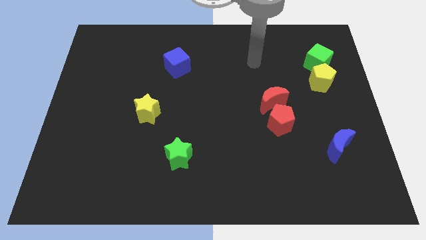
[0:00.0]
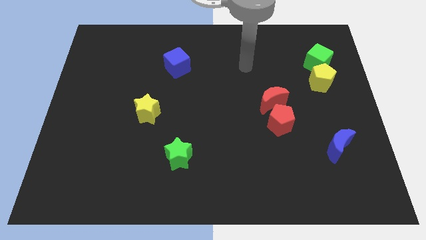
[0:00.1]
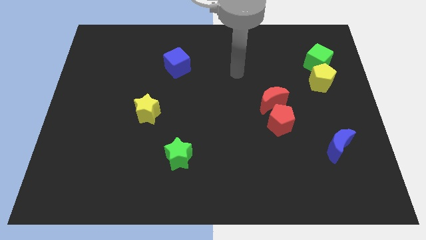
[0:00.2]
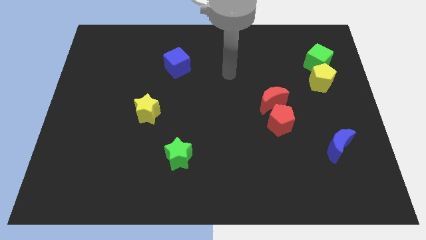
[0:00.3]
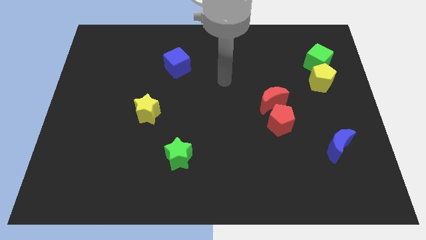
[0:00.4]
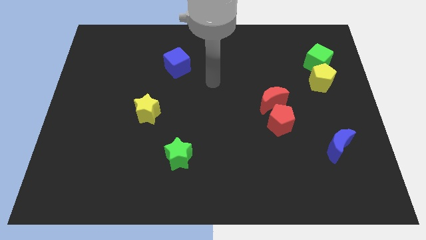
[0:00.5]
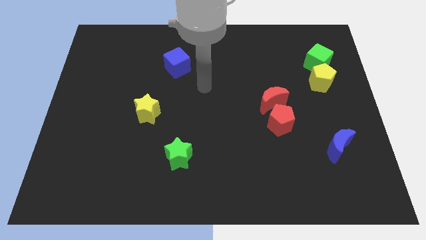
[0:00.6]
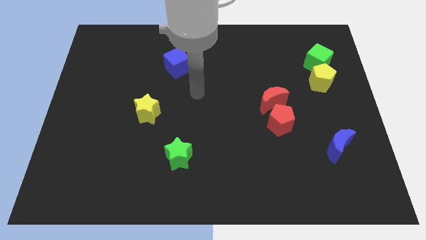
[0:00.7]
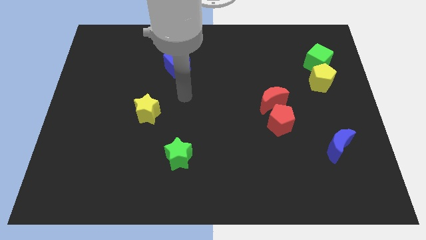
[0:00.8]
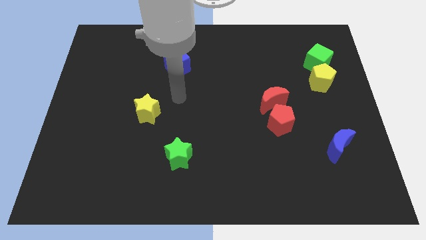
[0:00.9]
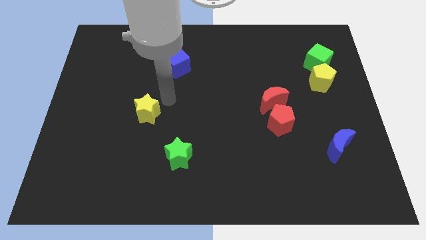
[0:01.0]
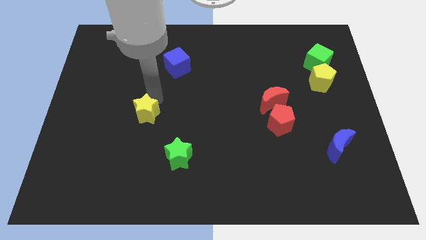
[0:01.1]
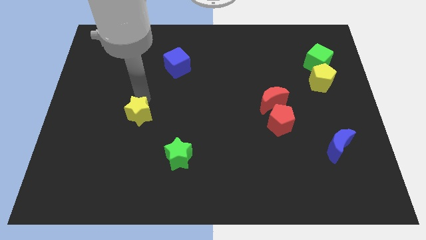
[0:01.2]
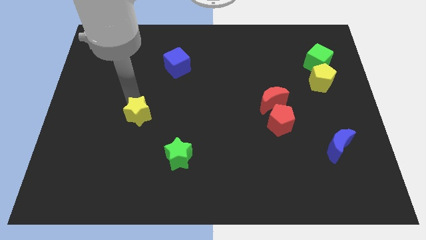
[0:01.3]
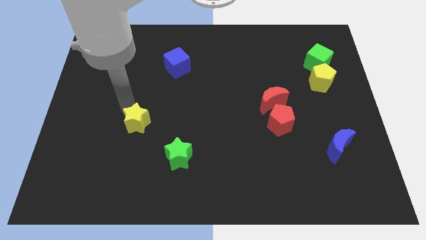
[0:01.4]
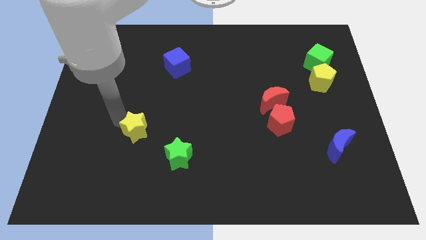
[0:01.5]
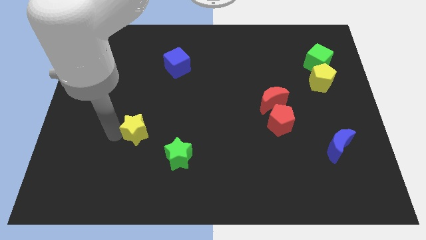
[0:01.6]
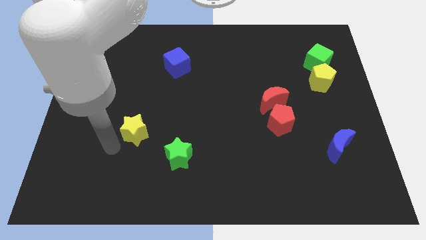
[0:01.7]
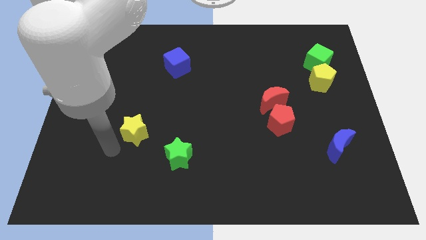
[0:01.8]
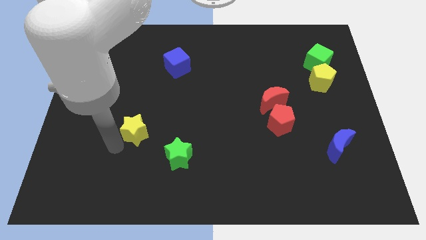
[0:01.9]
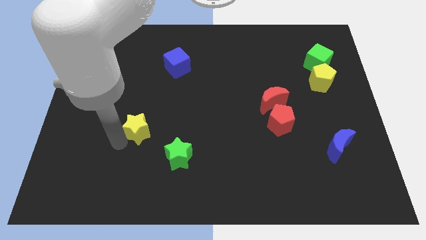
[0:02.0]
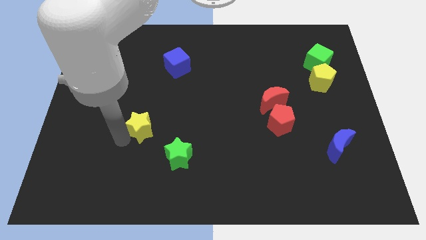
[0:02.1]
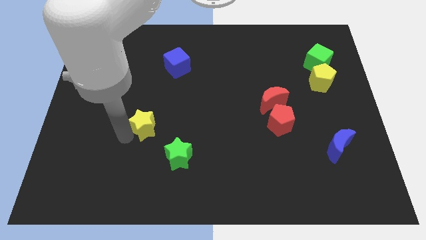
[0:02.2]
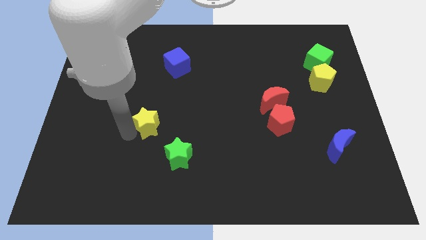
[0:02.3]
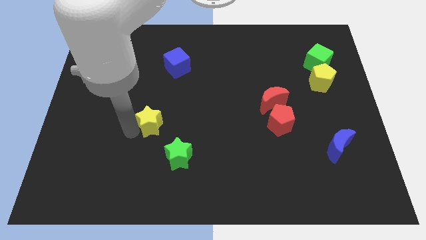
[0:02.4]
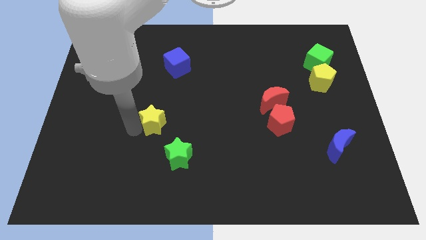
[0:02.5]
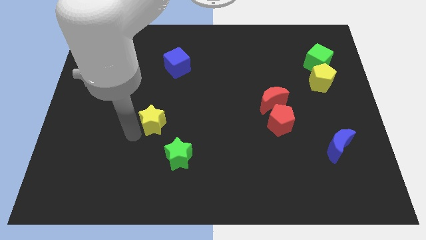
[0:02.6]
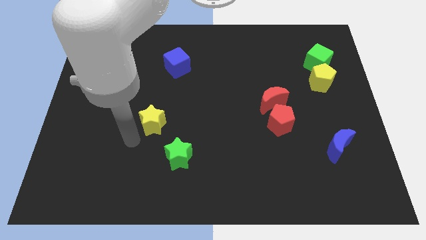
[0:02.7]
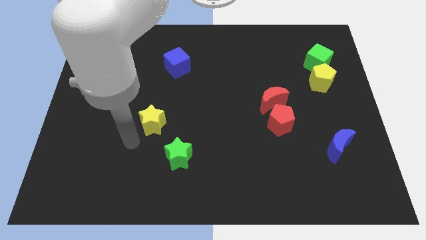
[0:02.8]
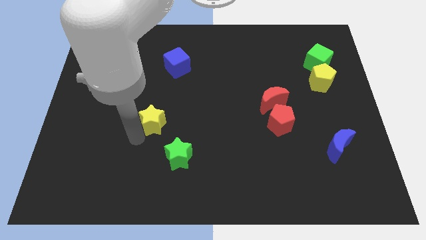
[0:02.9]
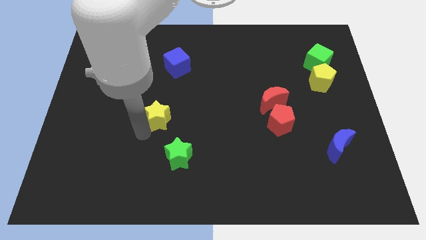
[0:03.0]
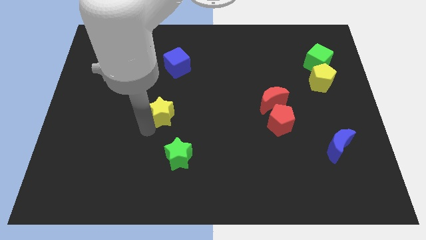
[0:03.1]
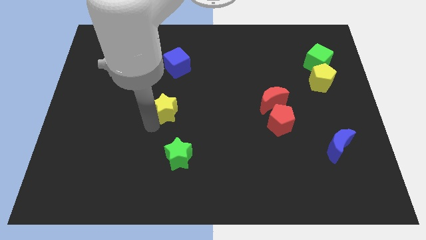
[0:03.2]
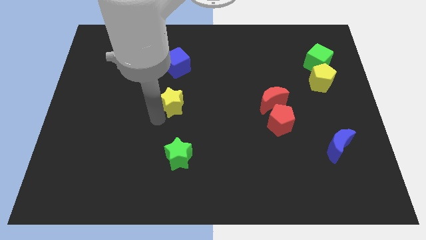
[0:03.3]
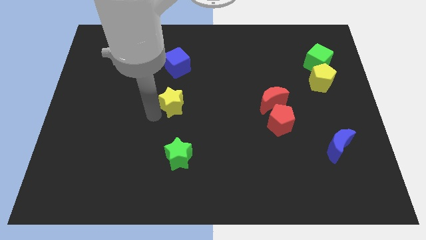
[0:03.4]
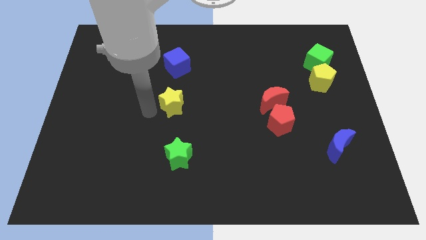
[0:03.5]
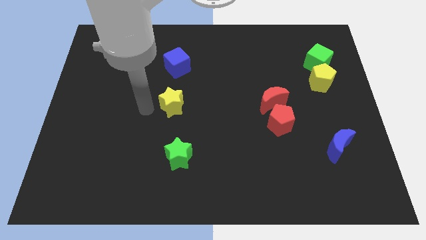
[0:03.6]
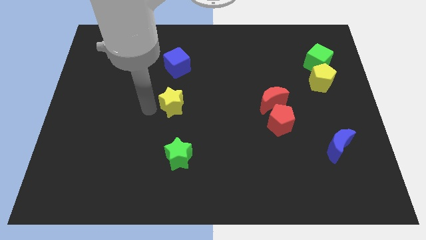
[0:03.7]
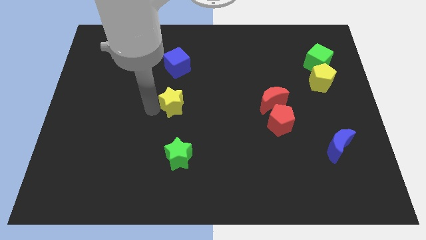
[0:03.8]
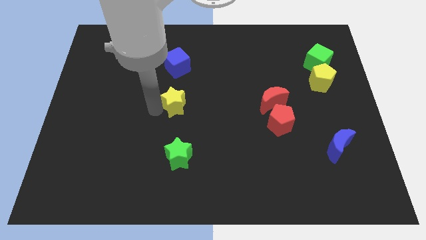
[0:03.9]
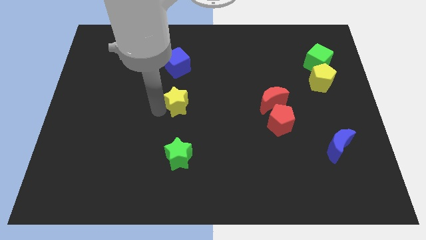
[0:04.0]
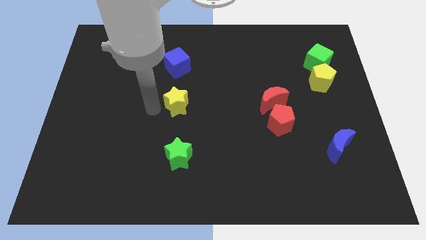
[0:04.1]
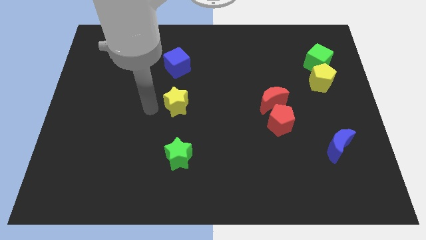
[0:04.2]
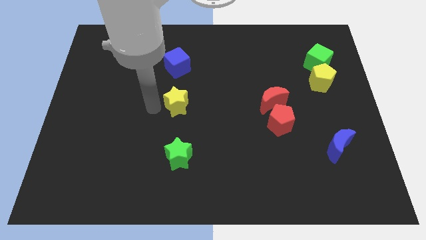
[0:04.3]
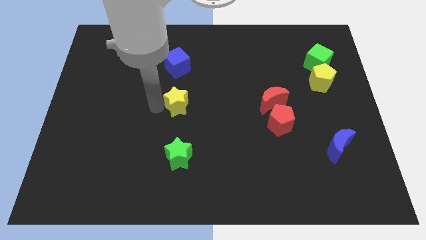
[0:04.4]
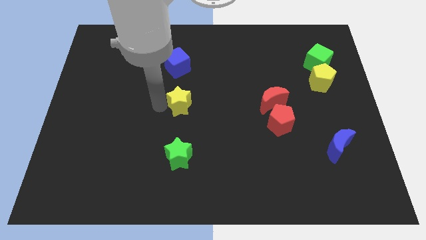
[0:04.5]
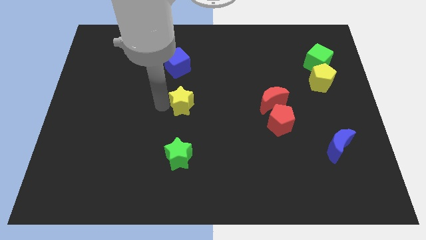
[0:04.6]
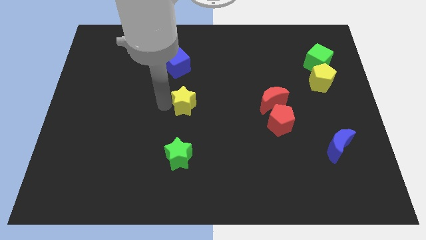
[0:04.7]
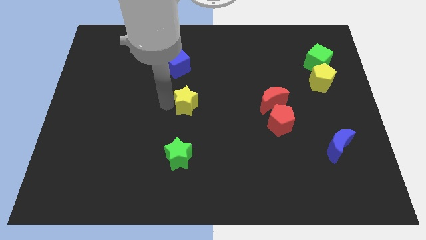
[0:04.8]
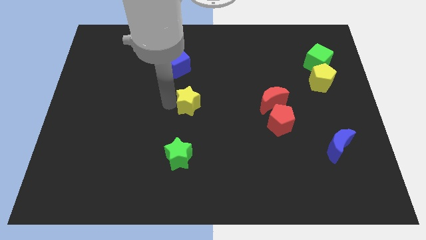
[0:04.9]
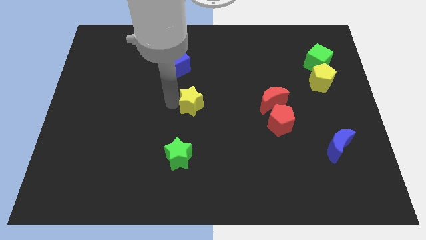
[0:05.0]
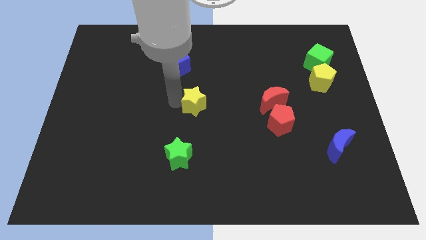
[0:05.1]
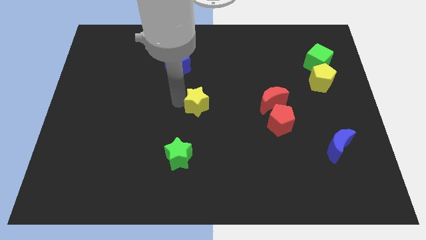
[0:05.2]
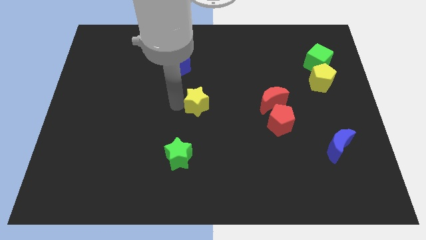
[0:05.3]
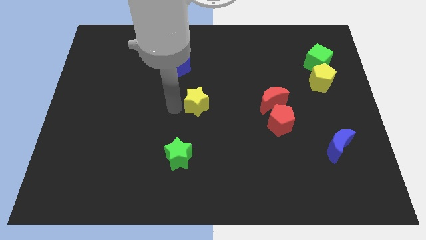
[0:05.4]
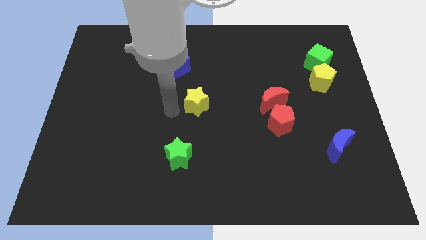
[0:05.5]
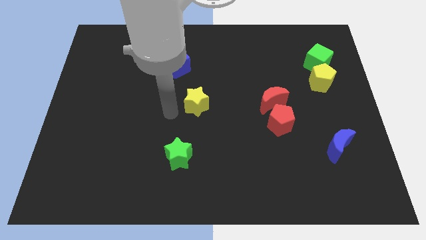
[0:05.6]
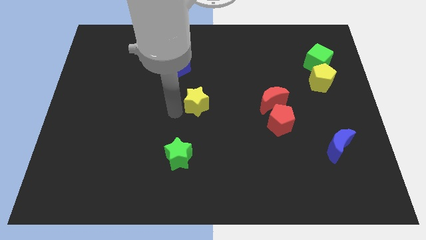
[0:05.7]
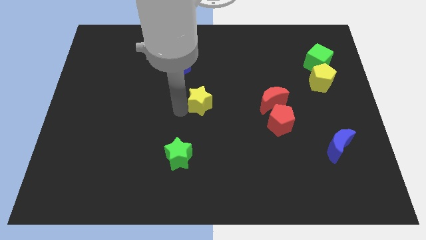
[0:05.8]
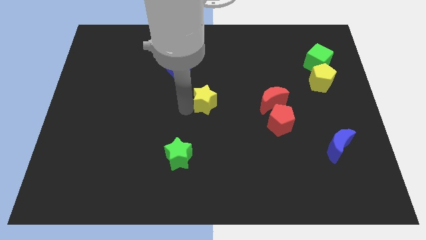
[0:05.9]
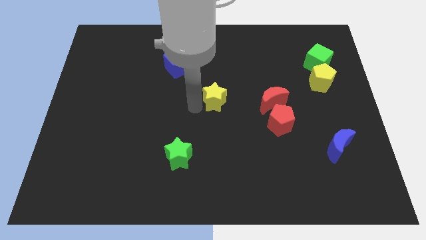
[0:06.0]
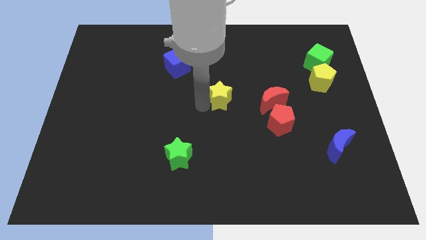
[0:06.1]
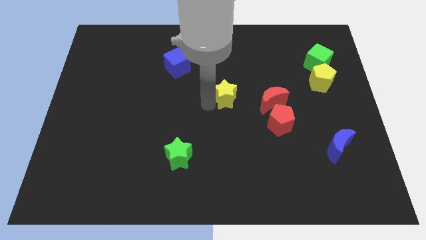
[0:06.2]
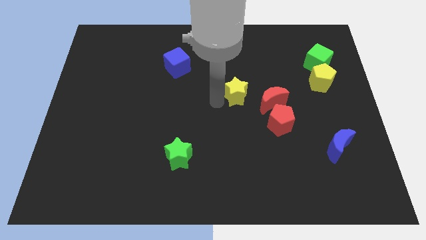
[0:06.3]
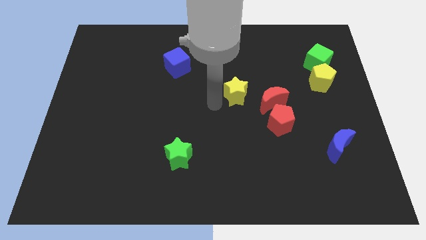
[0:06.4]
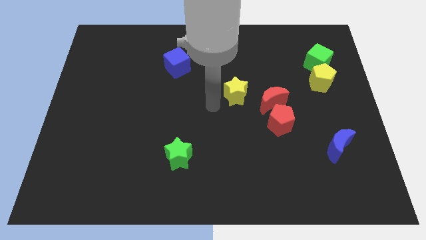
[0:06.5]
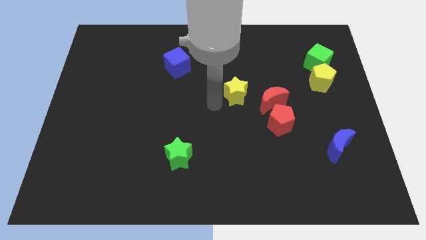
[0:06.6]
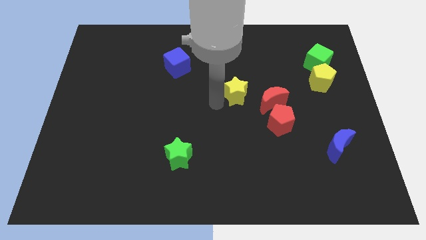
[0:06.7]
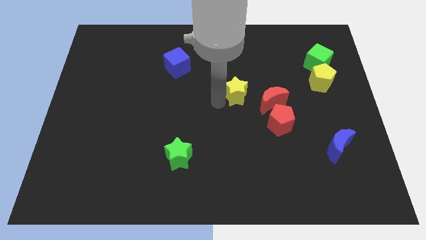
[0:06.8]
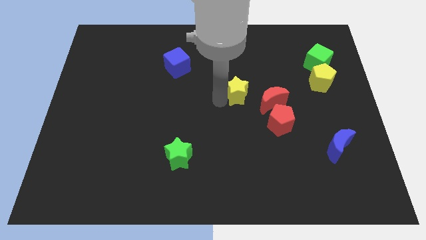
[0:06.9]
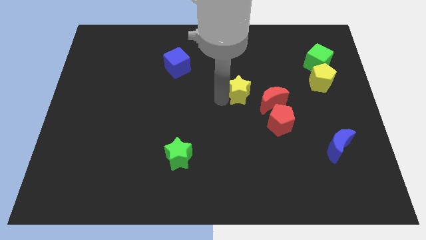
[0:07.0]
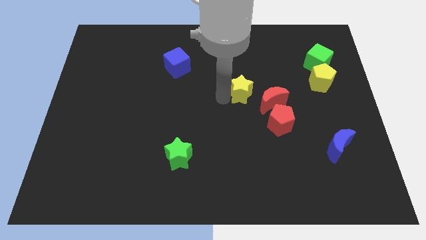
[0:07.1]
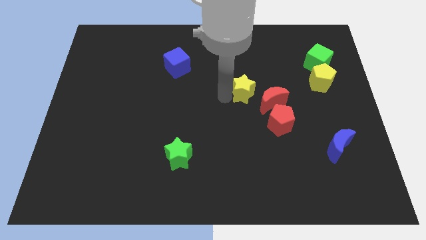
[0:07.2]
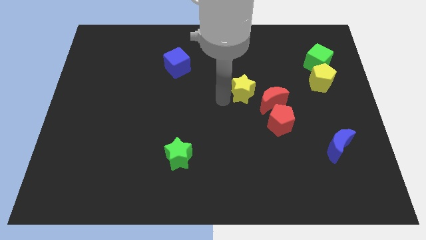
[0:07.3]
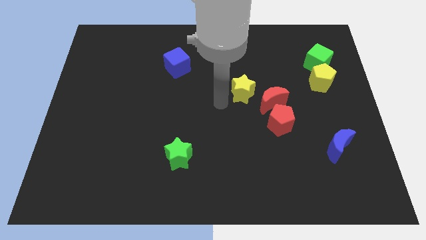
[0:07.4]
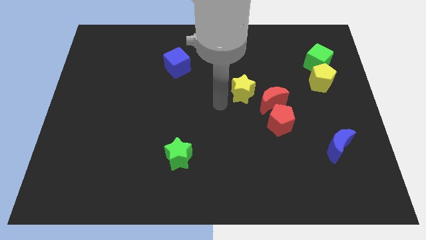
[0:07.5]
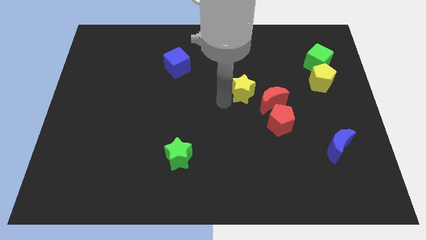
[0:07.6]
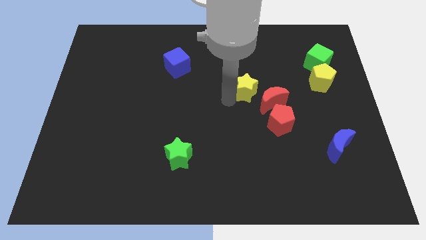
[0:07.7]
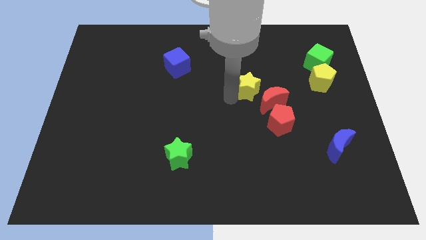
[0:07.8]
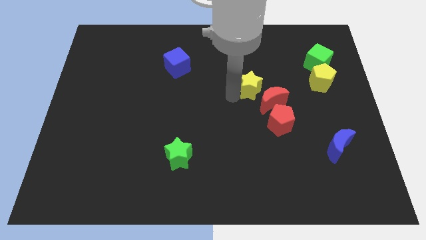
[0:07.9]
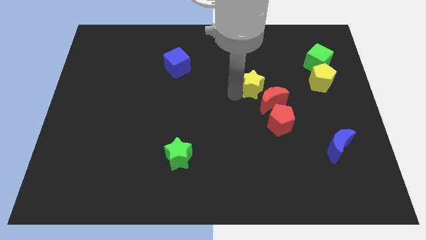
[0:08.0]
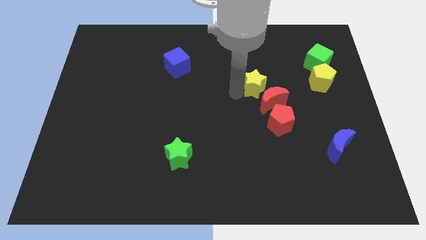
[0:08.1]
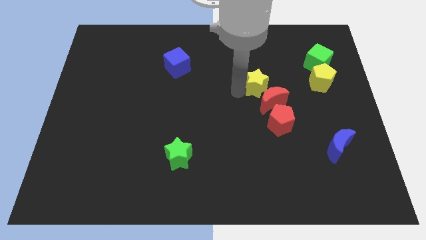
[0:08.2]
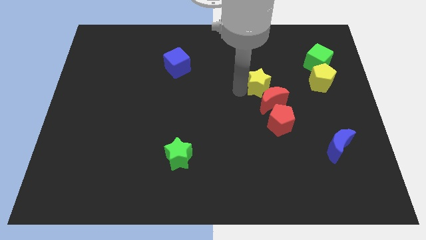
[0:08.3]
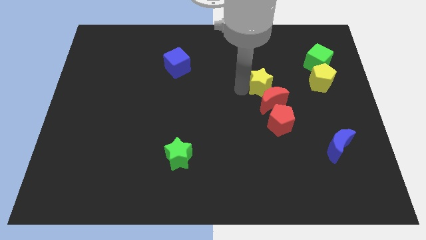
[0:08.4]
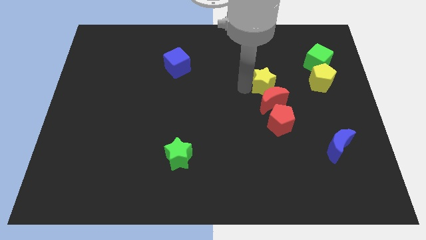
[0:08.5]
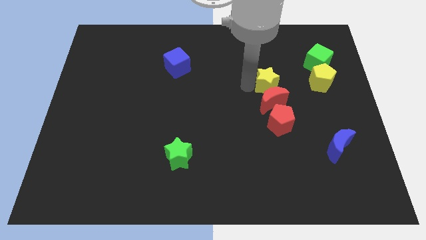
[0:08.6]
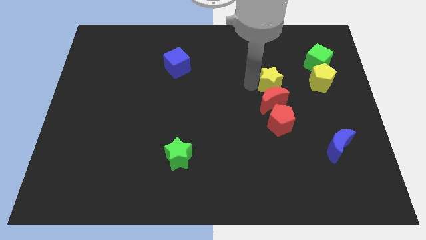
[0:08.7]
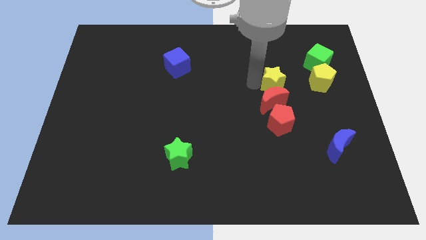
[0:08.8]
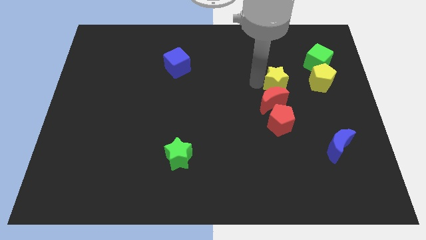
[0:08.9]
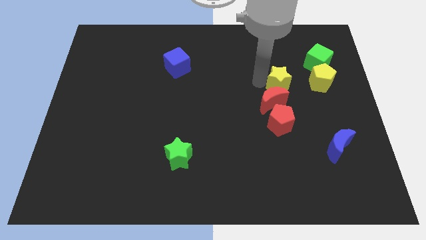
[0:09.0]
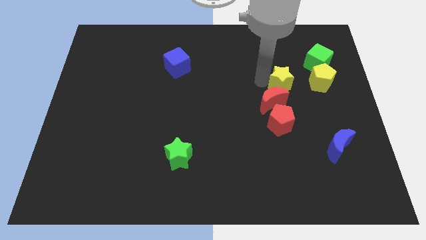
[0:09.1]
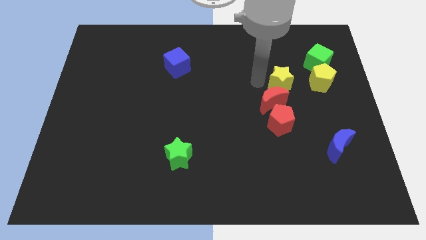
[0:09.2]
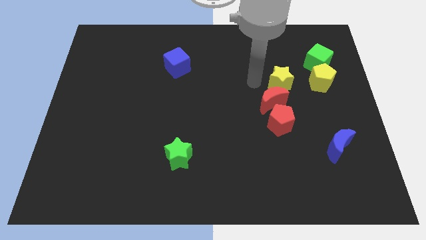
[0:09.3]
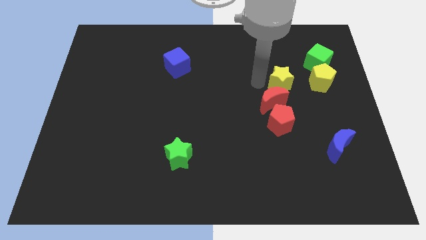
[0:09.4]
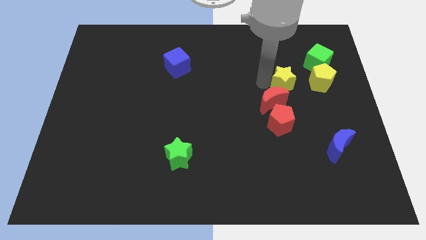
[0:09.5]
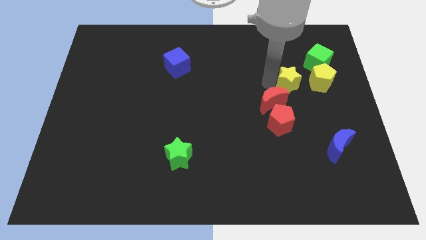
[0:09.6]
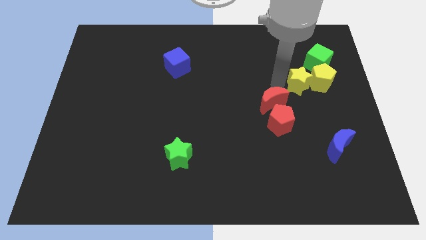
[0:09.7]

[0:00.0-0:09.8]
slide the yellow star close to the yellow pentagon
